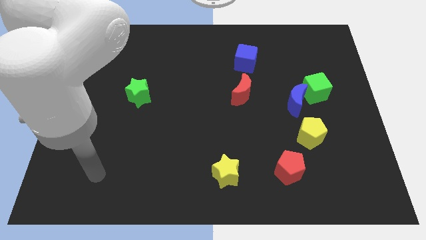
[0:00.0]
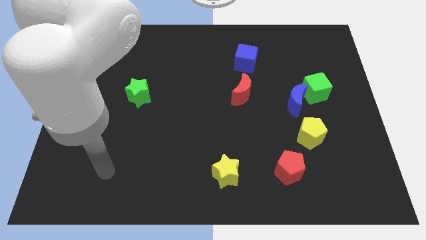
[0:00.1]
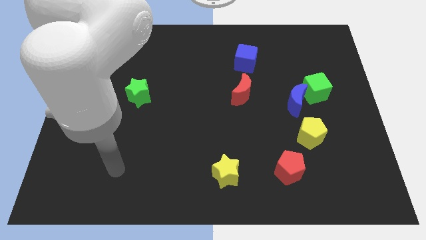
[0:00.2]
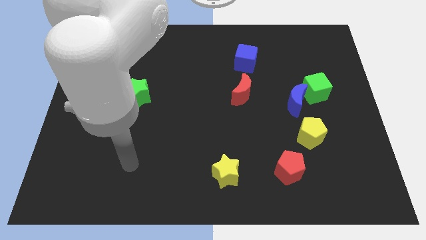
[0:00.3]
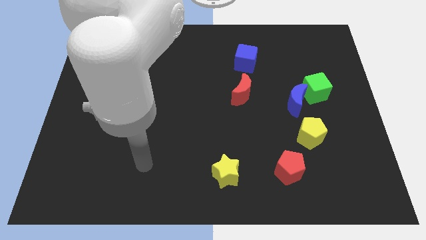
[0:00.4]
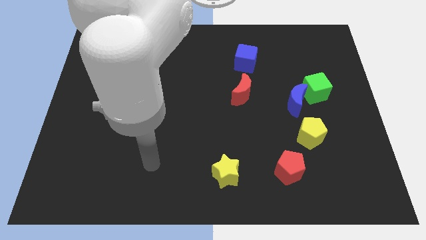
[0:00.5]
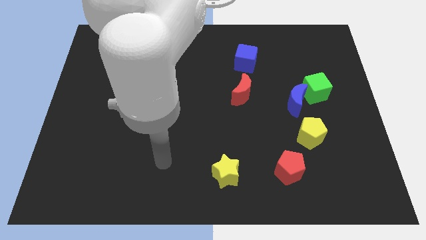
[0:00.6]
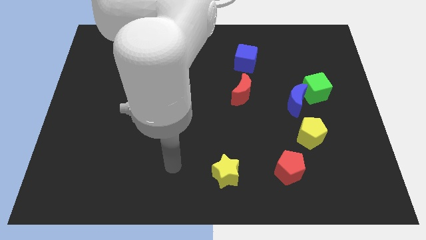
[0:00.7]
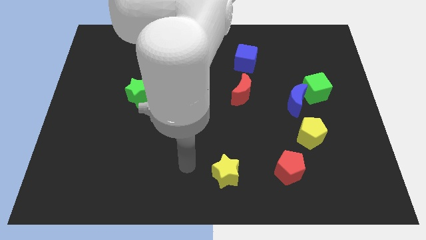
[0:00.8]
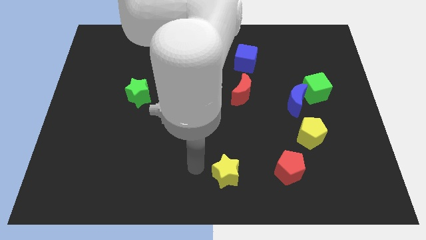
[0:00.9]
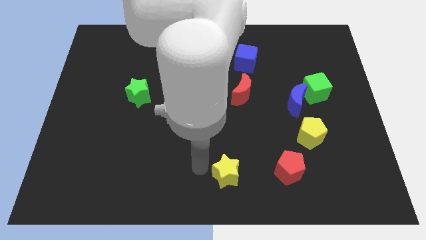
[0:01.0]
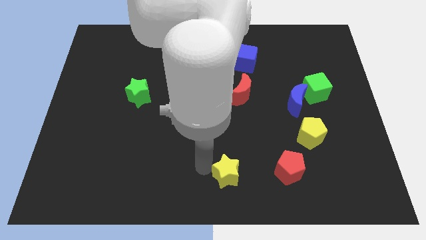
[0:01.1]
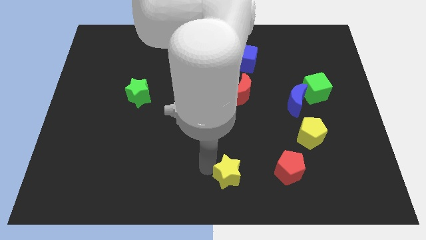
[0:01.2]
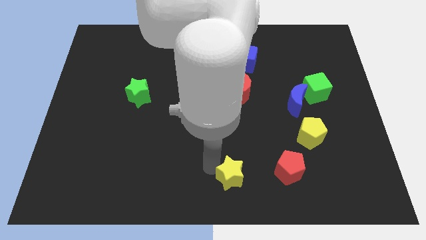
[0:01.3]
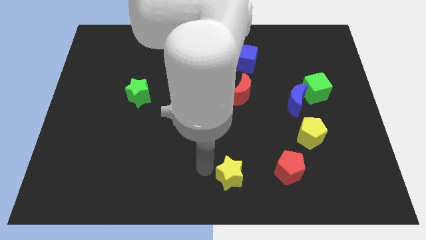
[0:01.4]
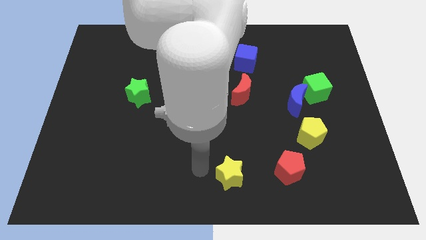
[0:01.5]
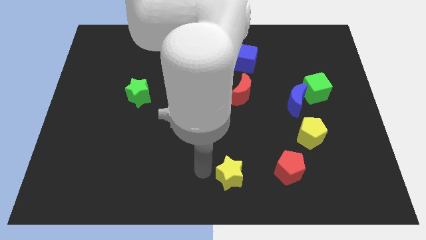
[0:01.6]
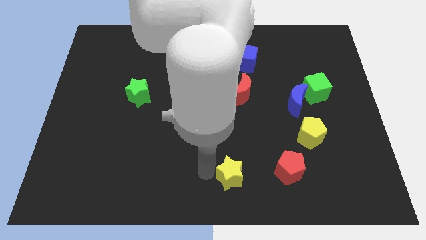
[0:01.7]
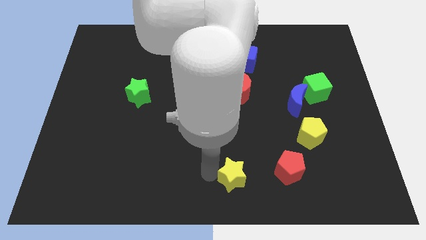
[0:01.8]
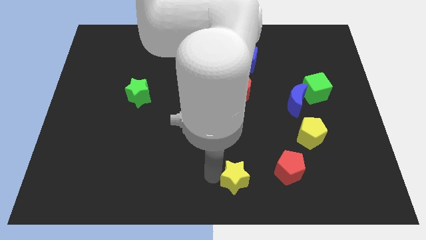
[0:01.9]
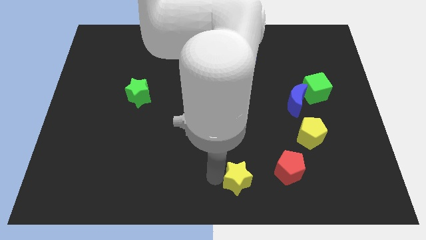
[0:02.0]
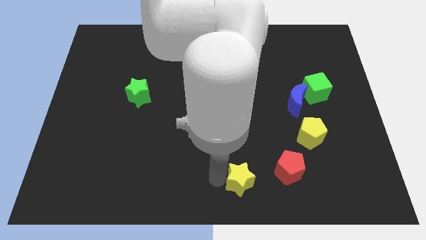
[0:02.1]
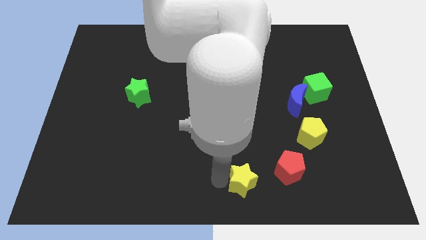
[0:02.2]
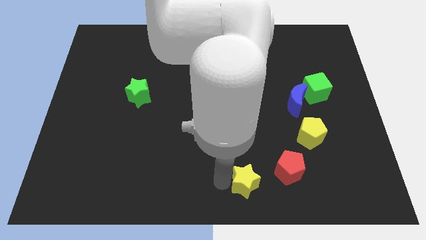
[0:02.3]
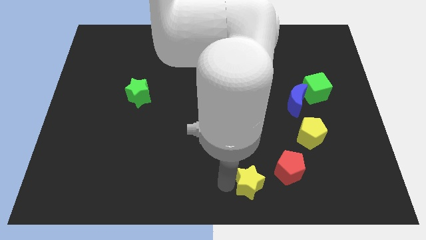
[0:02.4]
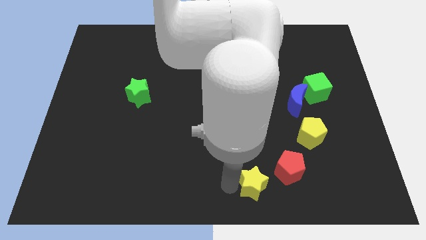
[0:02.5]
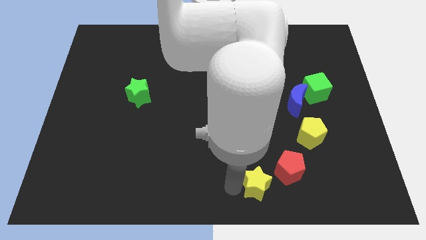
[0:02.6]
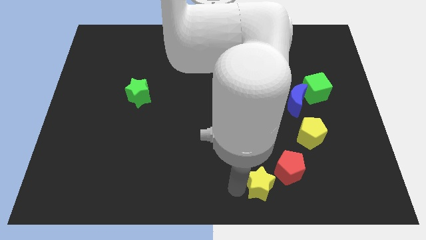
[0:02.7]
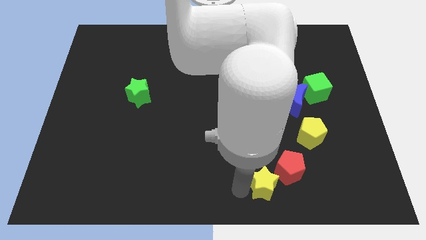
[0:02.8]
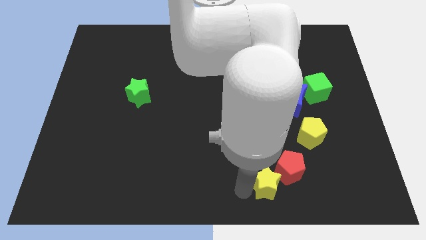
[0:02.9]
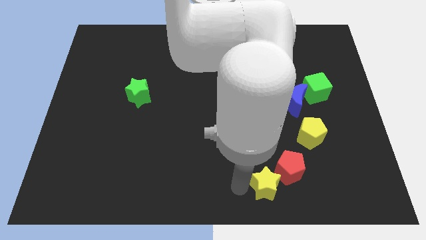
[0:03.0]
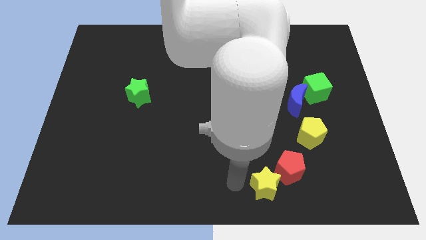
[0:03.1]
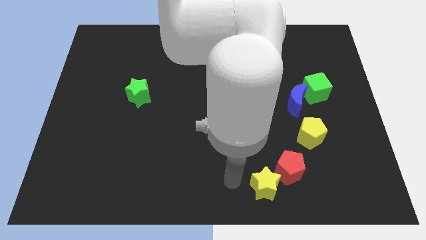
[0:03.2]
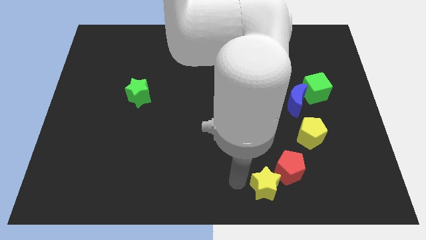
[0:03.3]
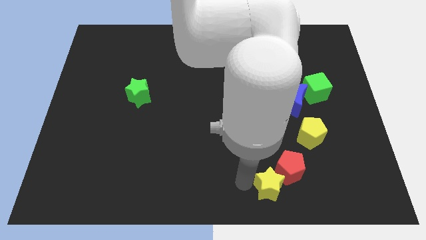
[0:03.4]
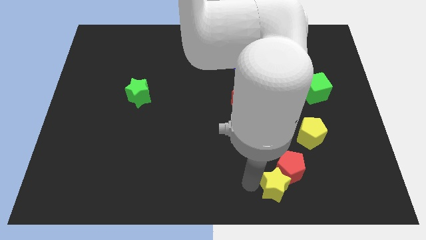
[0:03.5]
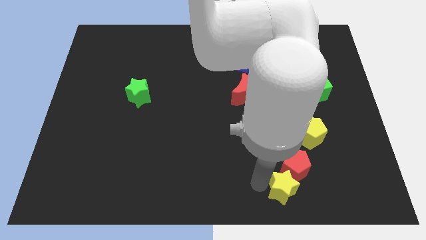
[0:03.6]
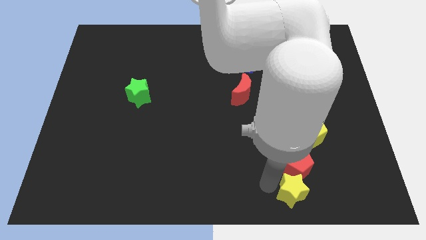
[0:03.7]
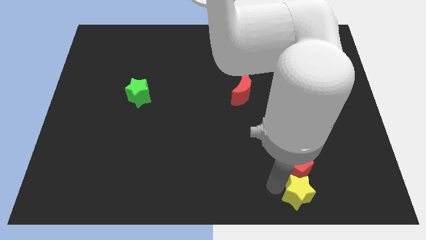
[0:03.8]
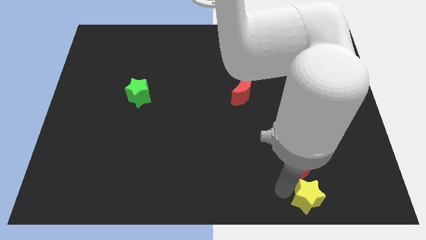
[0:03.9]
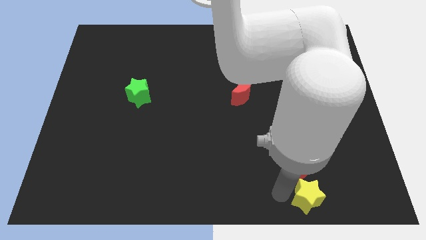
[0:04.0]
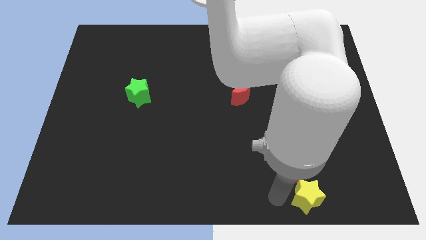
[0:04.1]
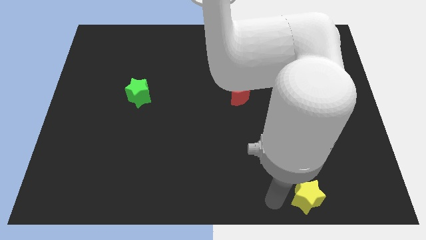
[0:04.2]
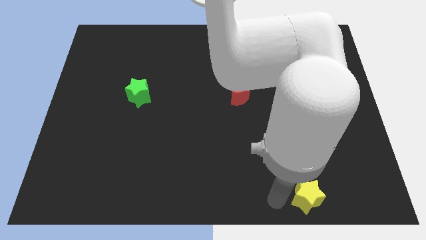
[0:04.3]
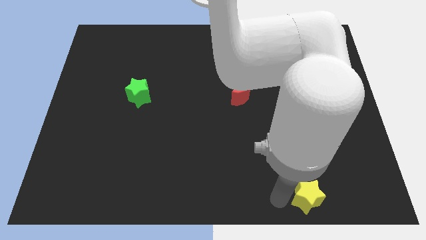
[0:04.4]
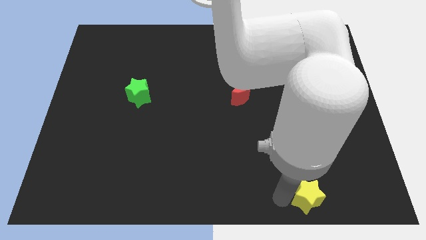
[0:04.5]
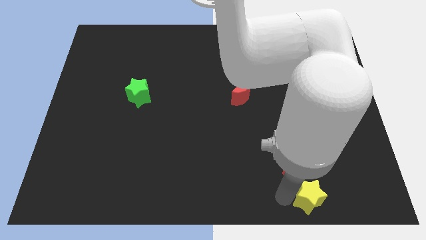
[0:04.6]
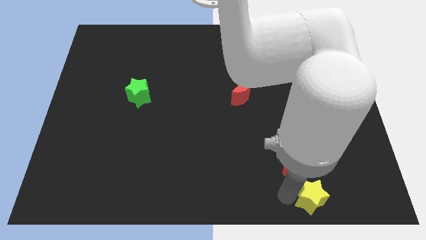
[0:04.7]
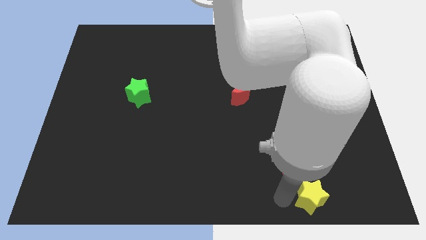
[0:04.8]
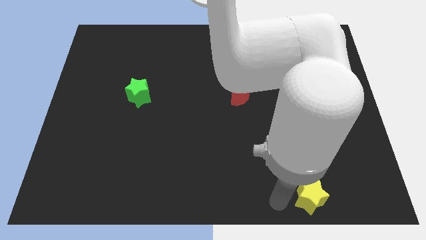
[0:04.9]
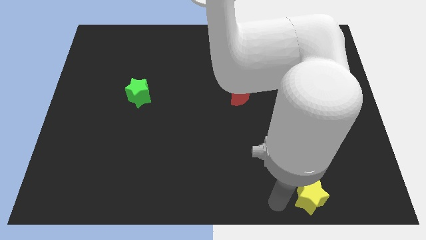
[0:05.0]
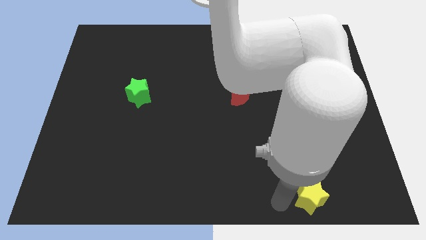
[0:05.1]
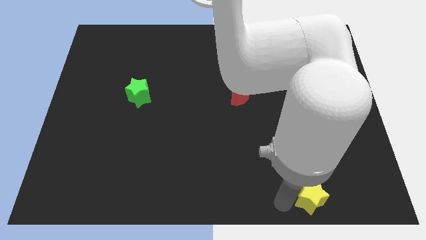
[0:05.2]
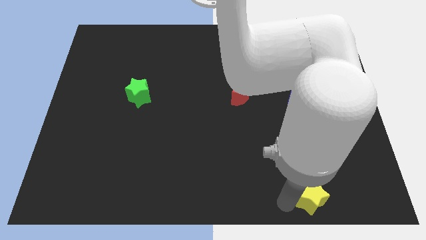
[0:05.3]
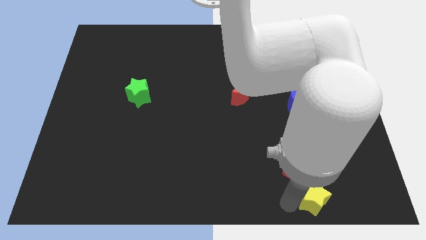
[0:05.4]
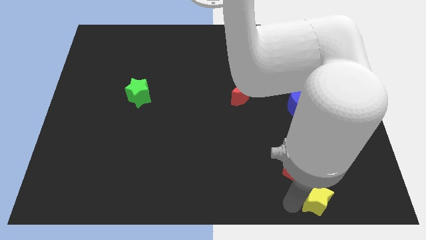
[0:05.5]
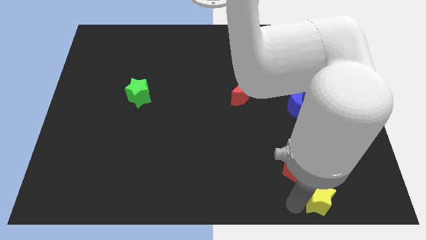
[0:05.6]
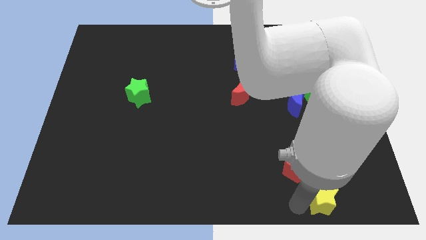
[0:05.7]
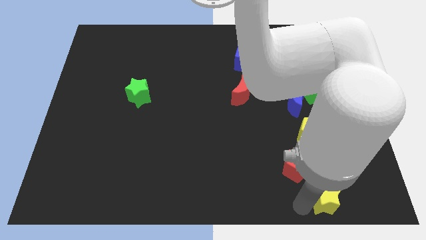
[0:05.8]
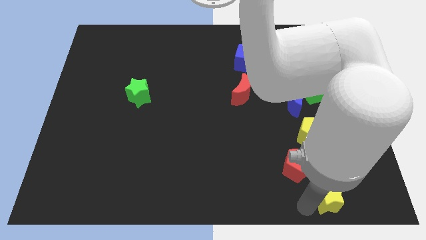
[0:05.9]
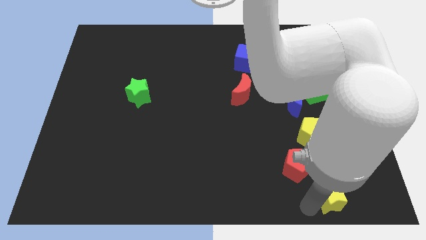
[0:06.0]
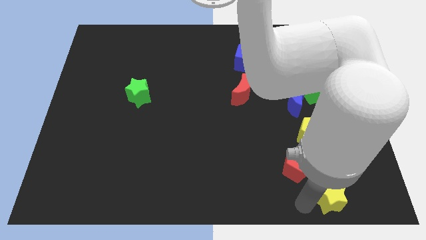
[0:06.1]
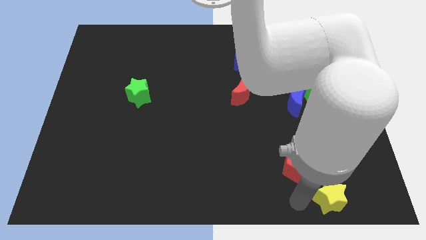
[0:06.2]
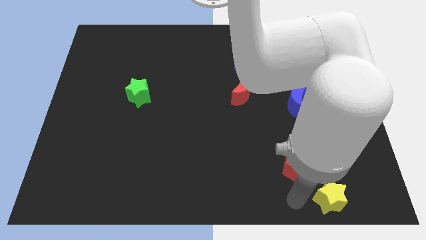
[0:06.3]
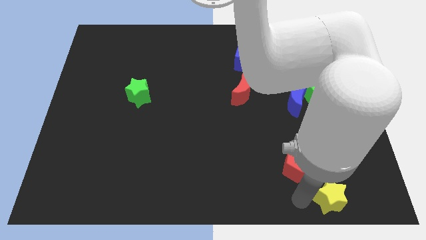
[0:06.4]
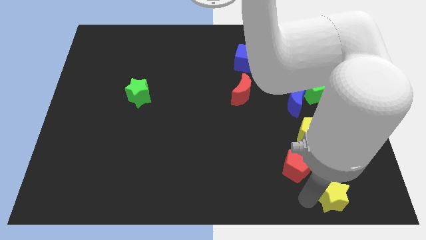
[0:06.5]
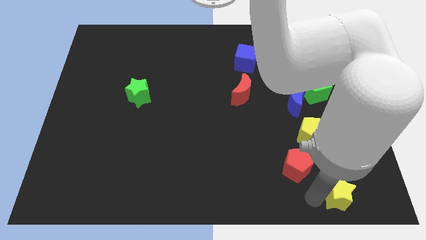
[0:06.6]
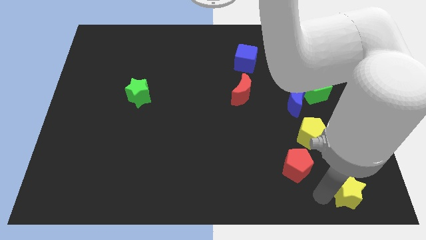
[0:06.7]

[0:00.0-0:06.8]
push the yellow star to the bottom right
